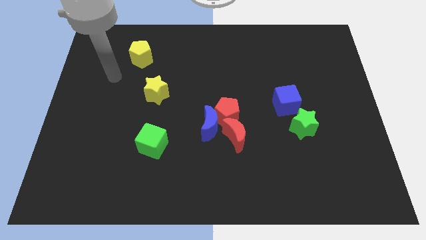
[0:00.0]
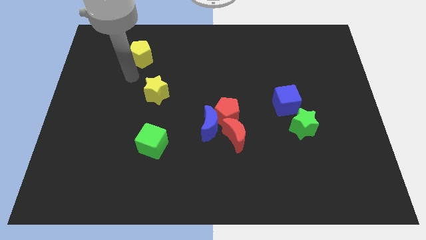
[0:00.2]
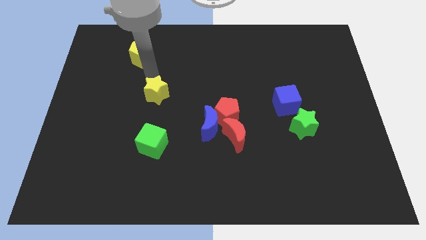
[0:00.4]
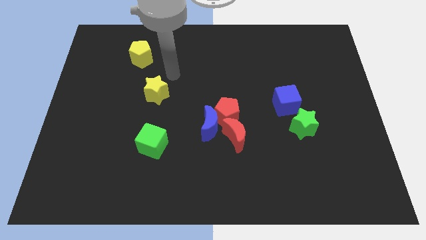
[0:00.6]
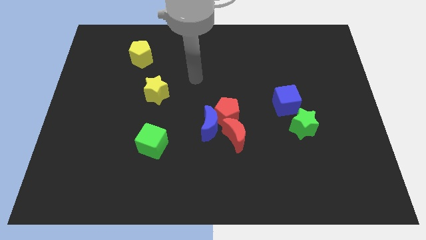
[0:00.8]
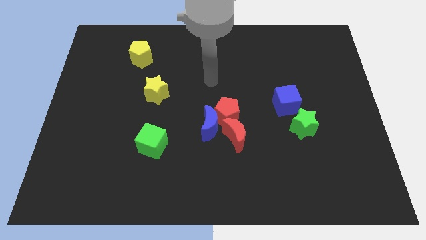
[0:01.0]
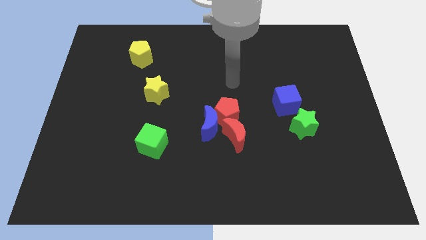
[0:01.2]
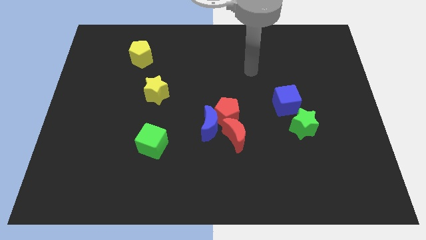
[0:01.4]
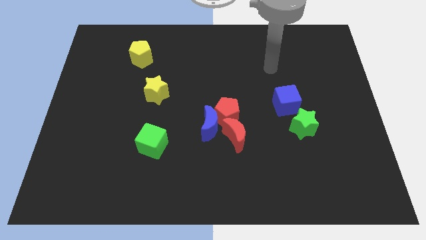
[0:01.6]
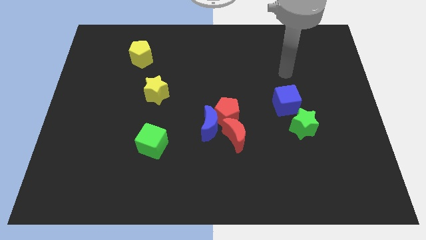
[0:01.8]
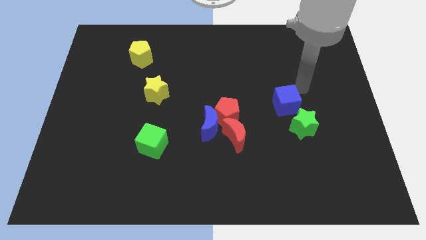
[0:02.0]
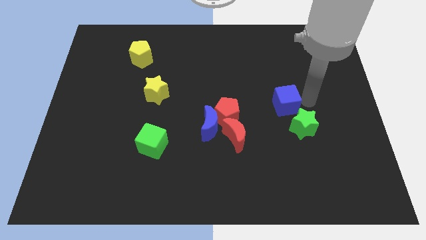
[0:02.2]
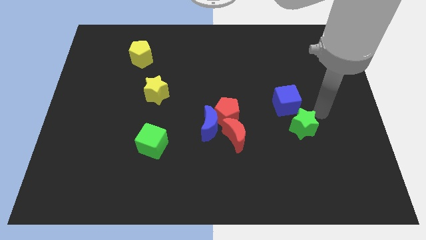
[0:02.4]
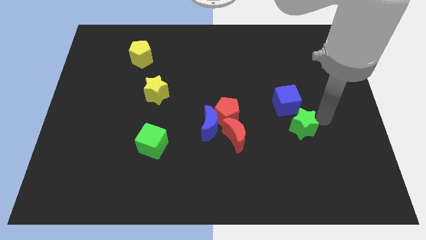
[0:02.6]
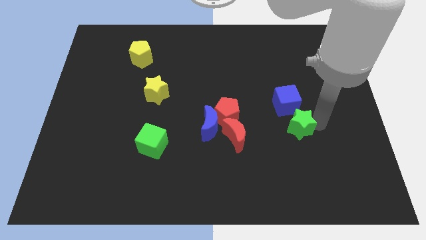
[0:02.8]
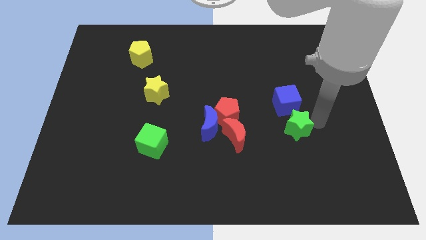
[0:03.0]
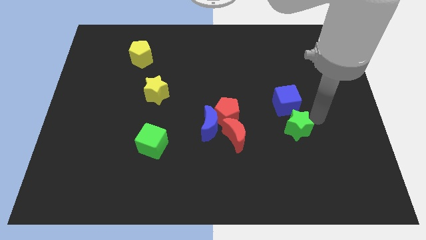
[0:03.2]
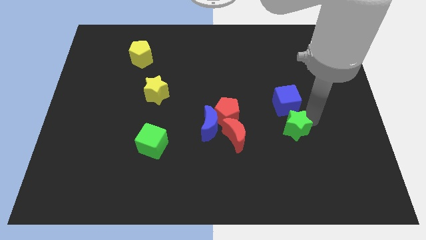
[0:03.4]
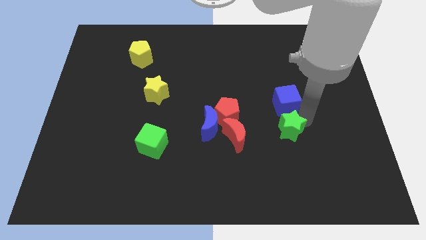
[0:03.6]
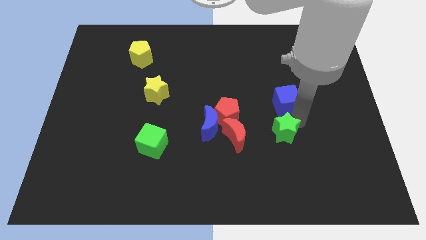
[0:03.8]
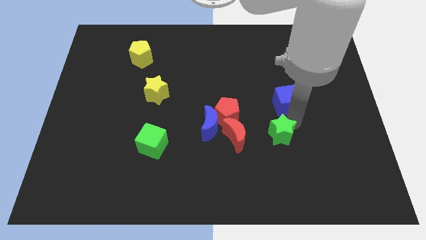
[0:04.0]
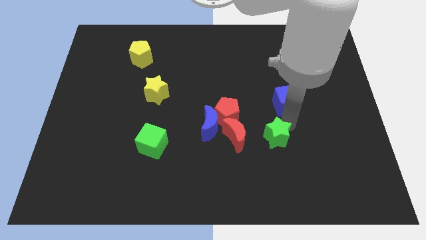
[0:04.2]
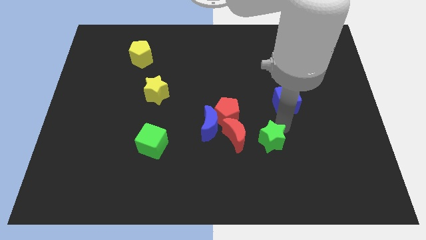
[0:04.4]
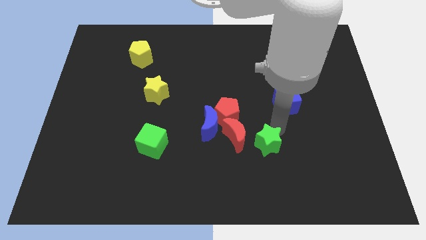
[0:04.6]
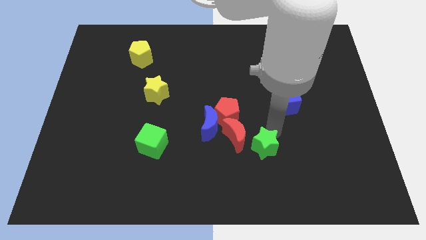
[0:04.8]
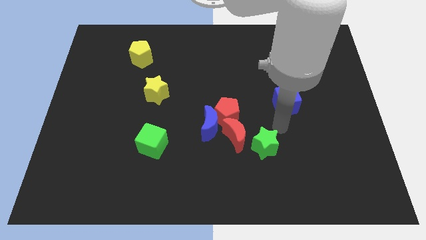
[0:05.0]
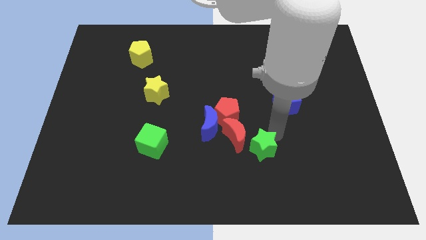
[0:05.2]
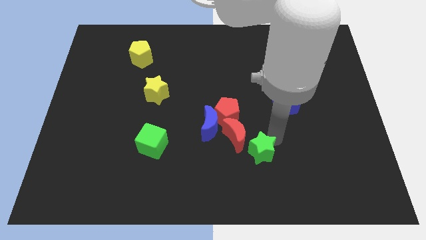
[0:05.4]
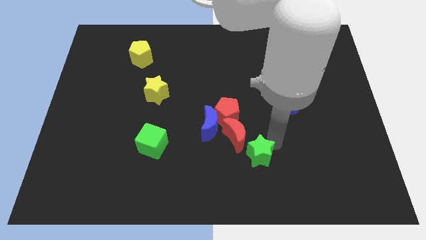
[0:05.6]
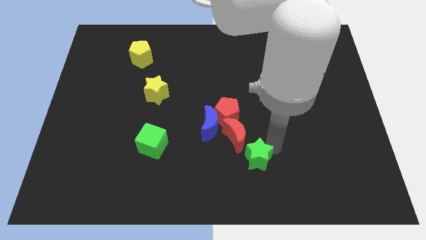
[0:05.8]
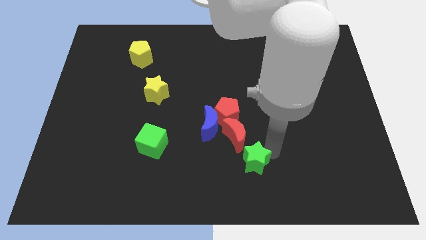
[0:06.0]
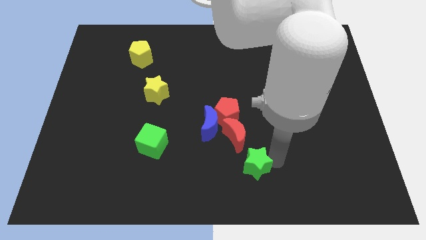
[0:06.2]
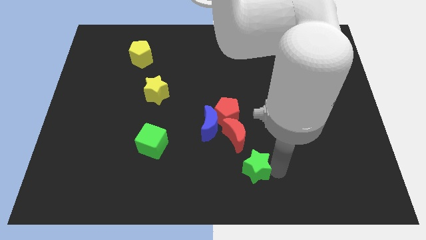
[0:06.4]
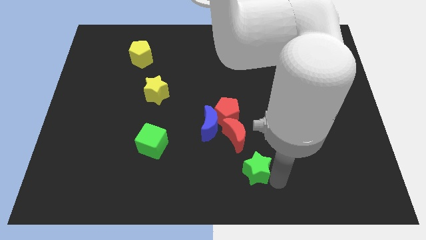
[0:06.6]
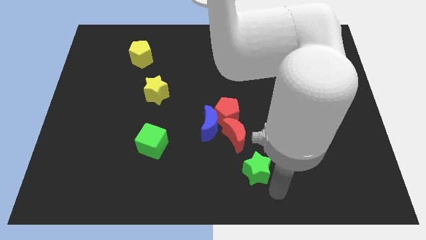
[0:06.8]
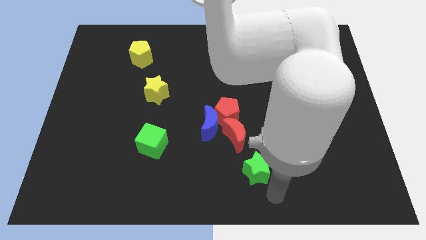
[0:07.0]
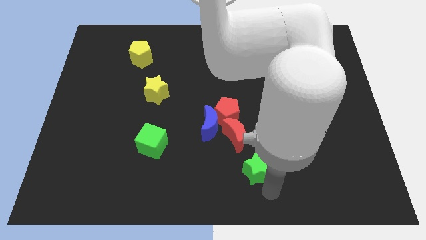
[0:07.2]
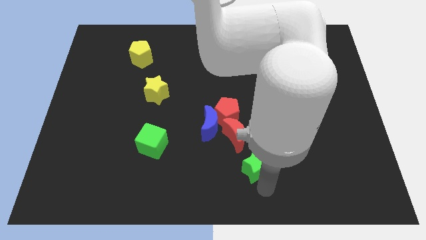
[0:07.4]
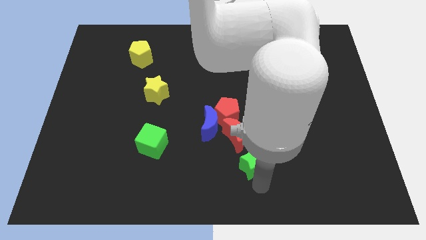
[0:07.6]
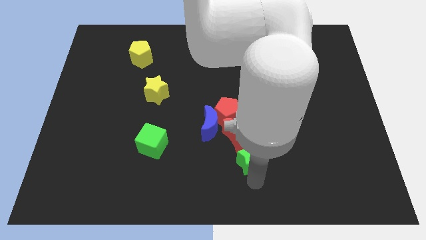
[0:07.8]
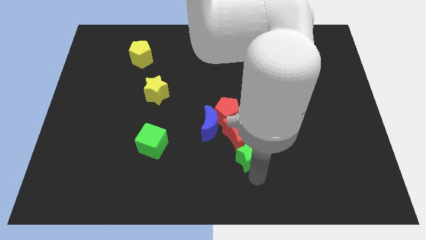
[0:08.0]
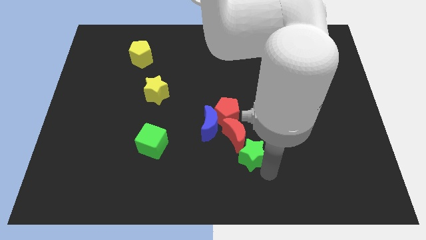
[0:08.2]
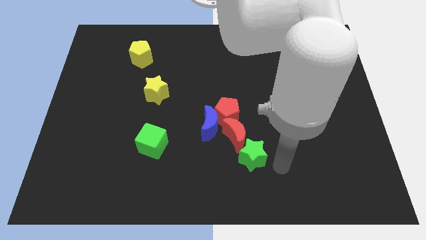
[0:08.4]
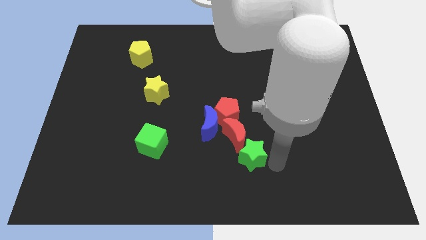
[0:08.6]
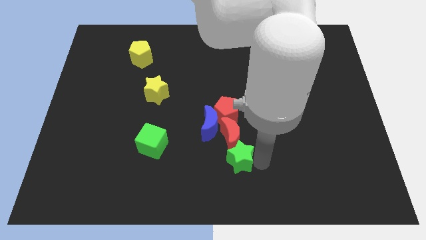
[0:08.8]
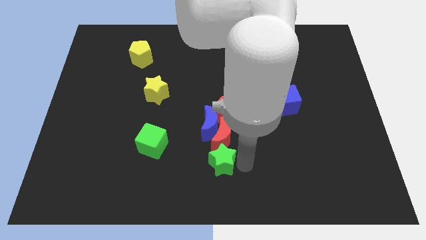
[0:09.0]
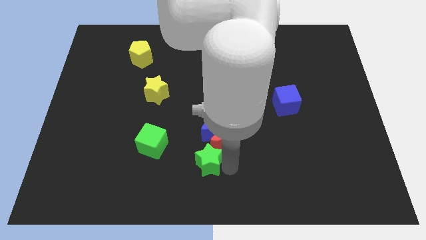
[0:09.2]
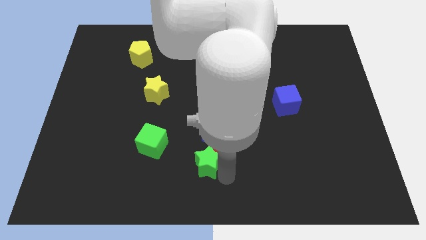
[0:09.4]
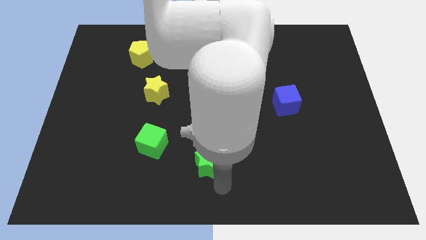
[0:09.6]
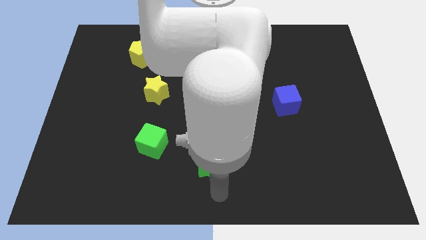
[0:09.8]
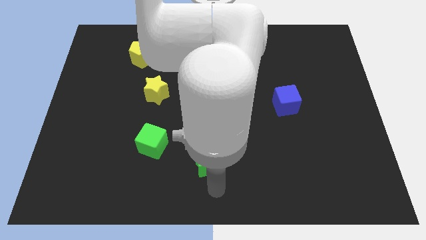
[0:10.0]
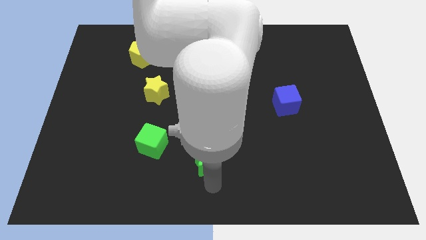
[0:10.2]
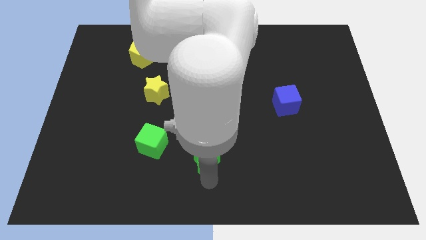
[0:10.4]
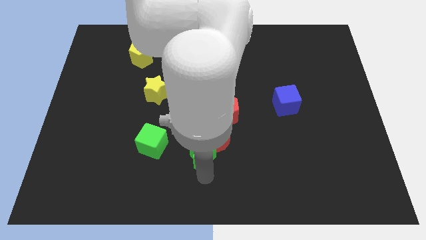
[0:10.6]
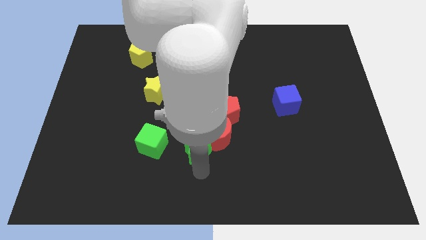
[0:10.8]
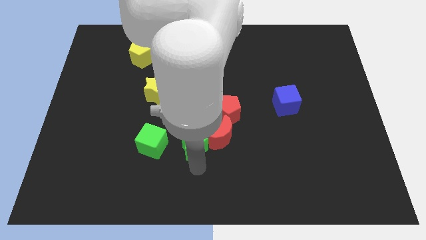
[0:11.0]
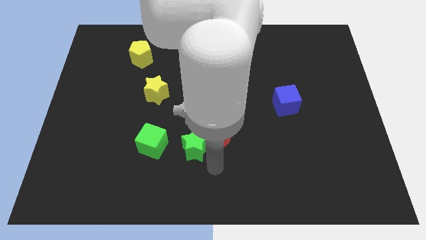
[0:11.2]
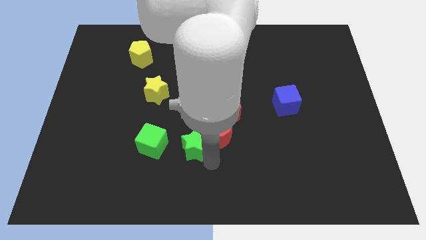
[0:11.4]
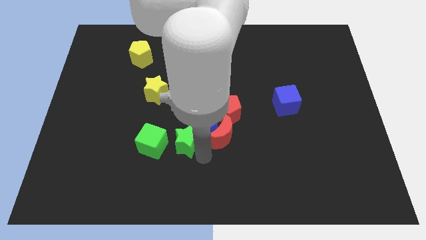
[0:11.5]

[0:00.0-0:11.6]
put the green star left of the blue moon

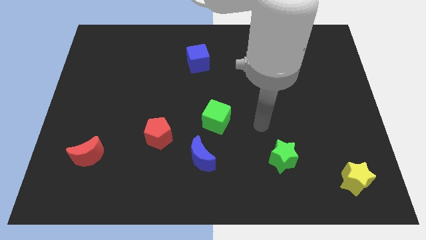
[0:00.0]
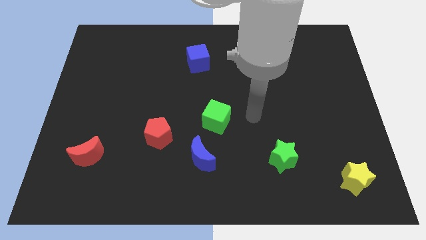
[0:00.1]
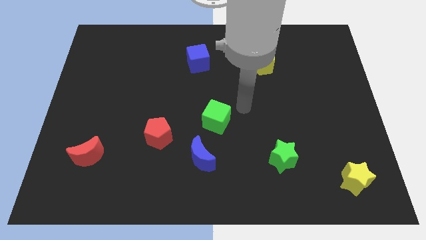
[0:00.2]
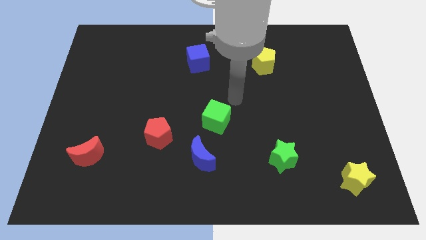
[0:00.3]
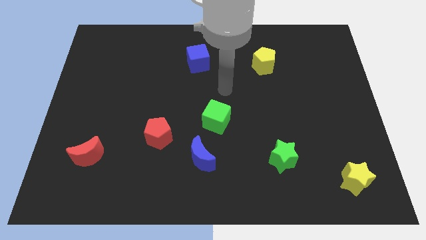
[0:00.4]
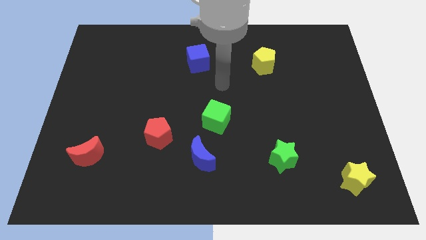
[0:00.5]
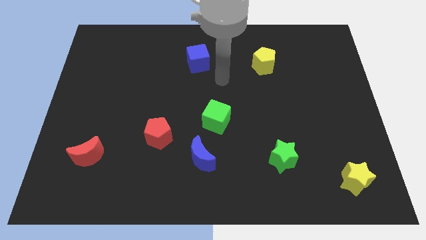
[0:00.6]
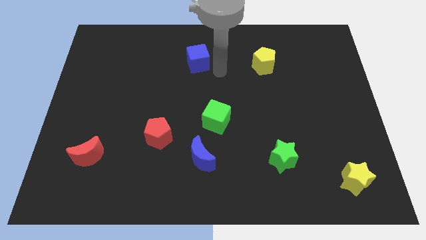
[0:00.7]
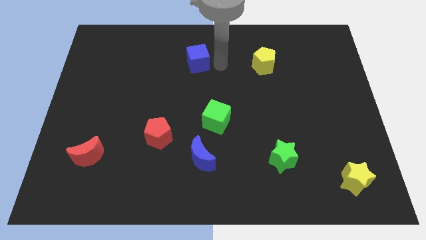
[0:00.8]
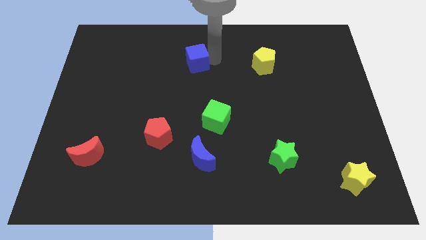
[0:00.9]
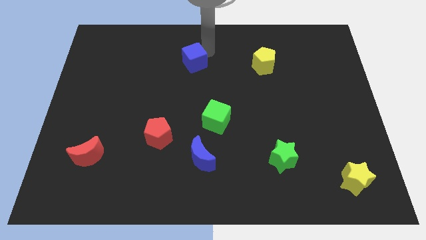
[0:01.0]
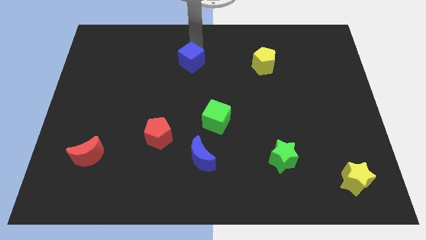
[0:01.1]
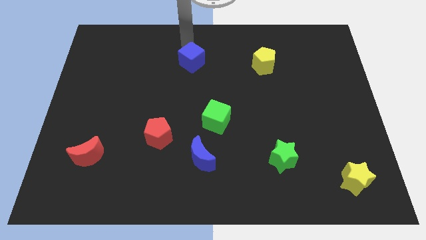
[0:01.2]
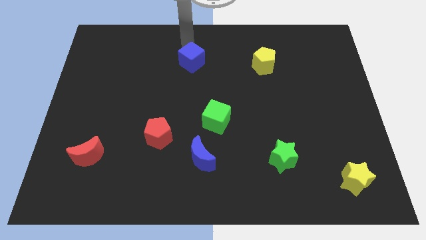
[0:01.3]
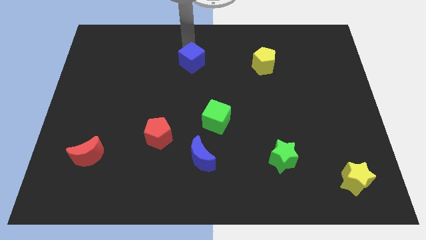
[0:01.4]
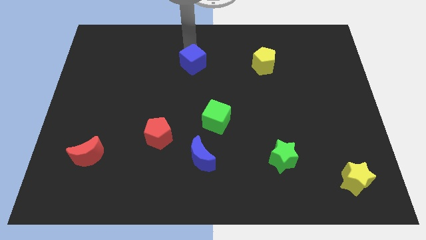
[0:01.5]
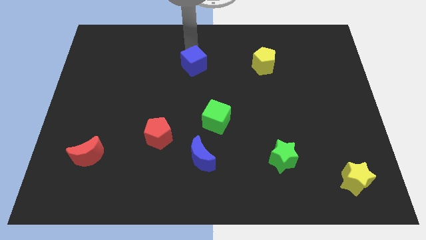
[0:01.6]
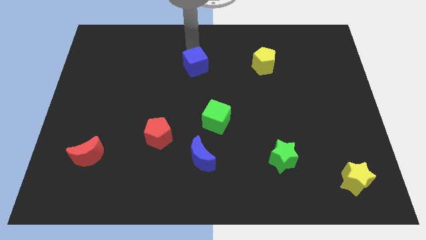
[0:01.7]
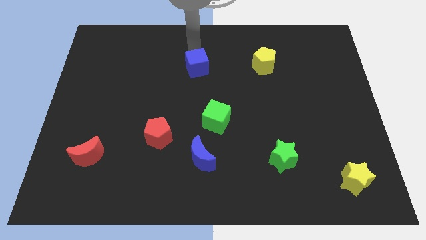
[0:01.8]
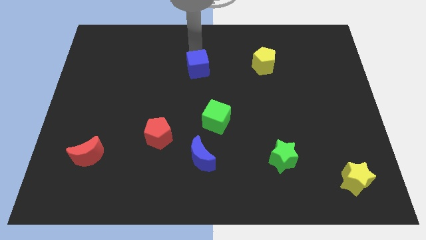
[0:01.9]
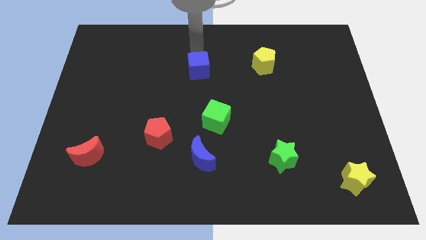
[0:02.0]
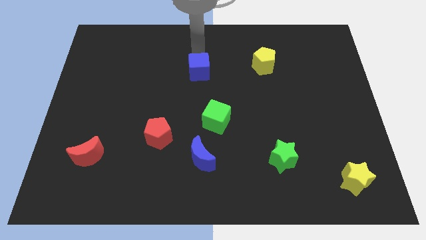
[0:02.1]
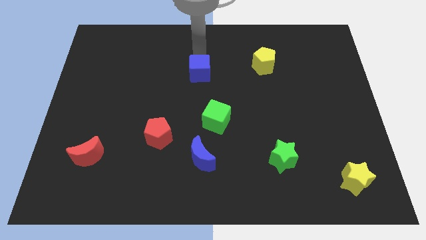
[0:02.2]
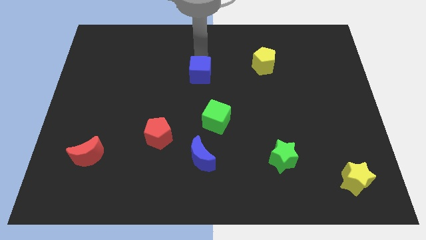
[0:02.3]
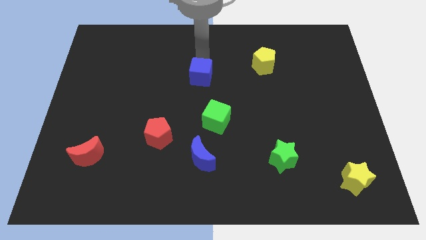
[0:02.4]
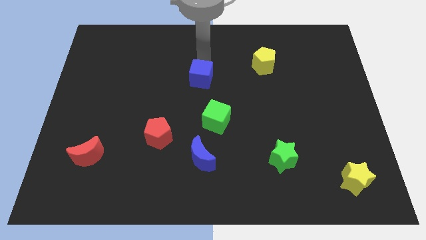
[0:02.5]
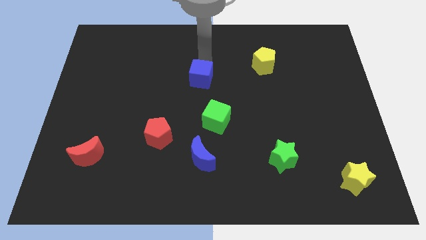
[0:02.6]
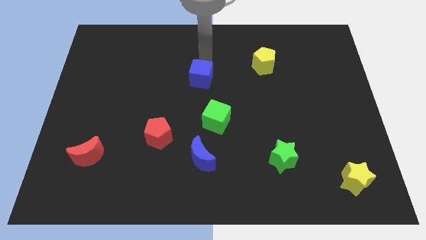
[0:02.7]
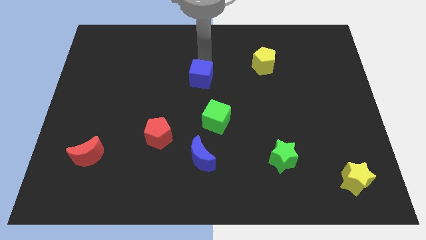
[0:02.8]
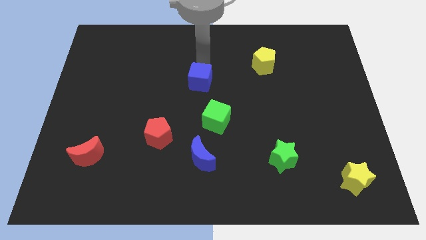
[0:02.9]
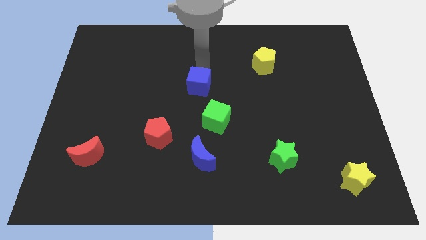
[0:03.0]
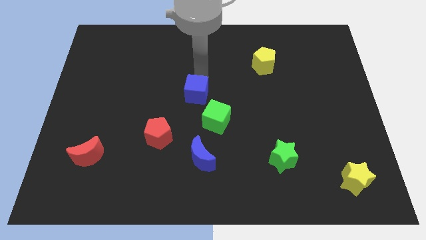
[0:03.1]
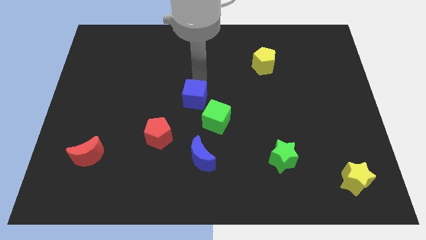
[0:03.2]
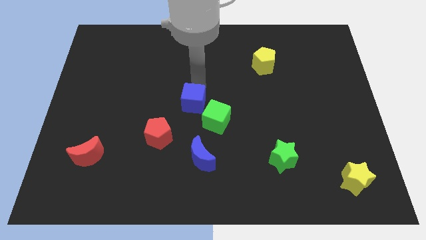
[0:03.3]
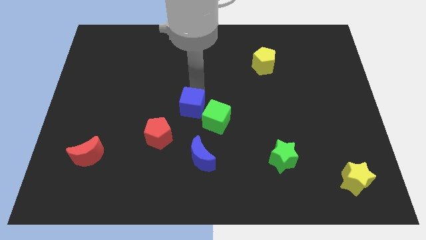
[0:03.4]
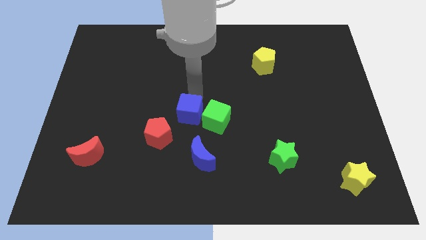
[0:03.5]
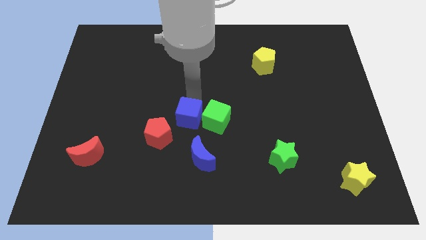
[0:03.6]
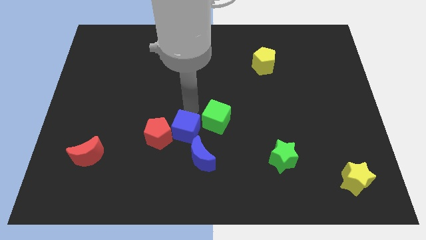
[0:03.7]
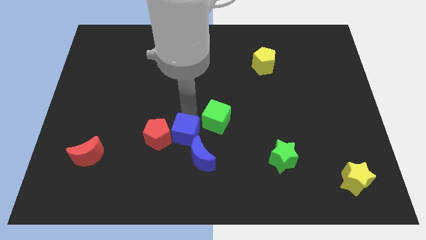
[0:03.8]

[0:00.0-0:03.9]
slide the blue cube to the bottom right of the red pentagon
